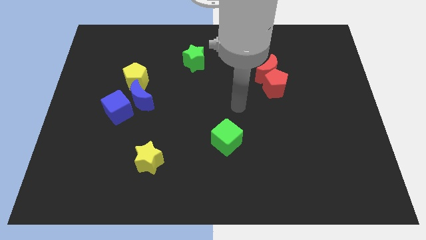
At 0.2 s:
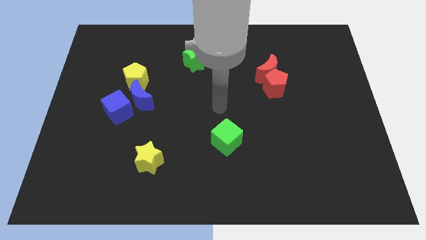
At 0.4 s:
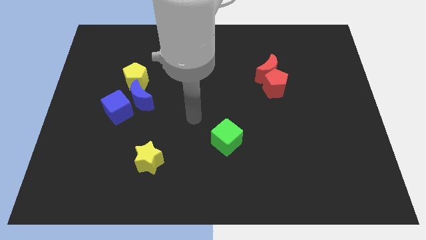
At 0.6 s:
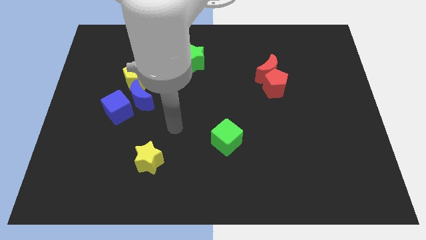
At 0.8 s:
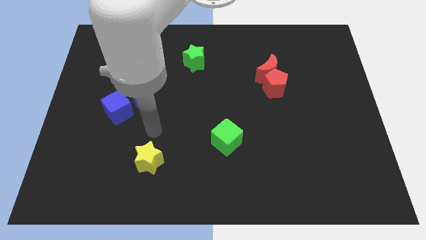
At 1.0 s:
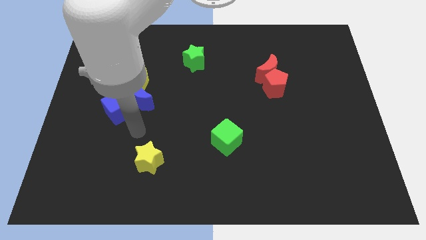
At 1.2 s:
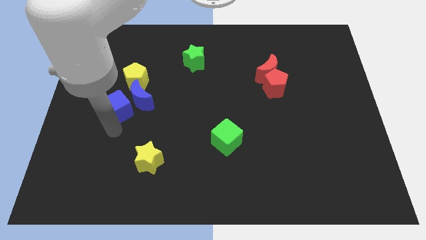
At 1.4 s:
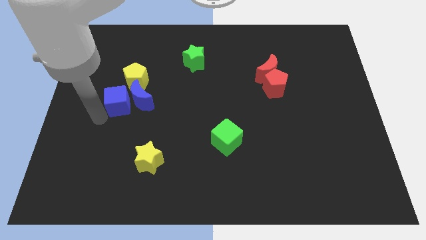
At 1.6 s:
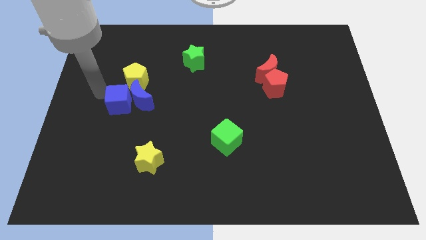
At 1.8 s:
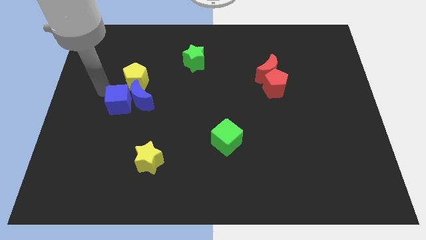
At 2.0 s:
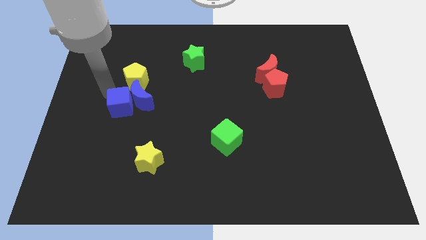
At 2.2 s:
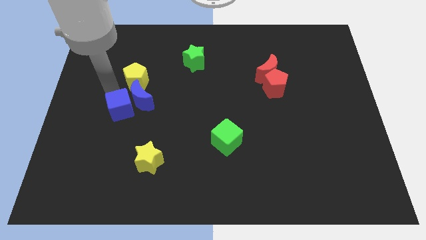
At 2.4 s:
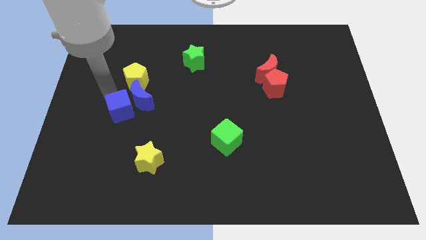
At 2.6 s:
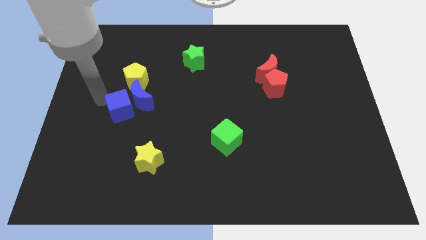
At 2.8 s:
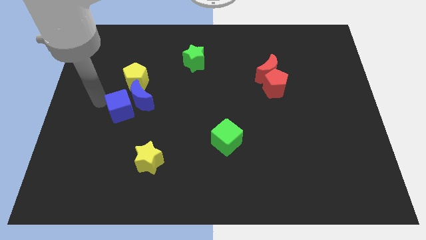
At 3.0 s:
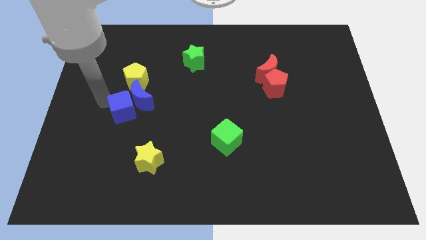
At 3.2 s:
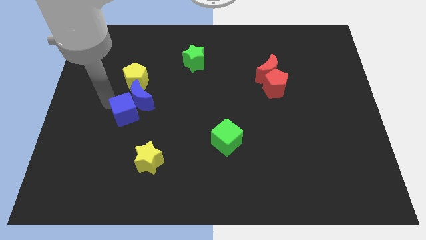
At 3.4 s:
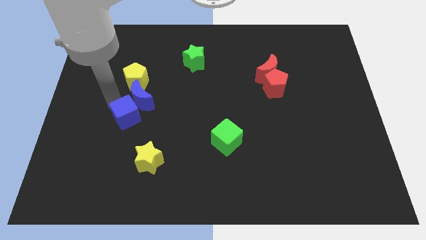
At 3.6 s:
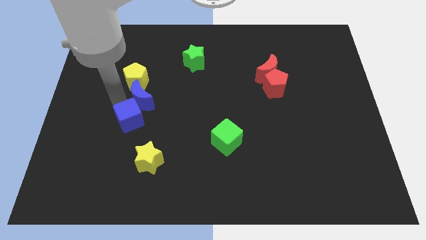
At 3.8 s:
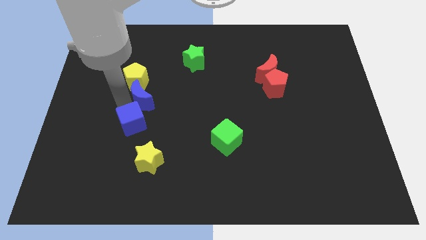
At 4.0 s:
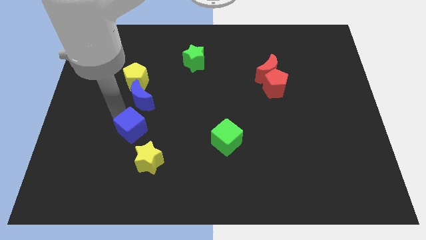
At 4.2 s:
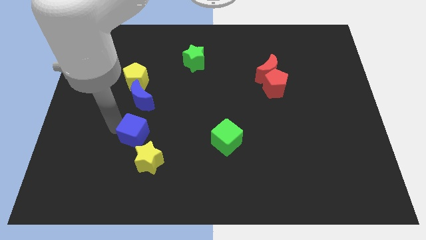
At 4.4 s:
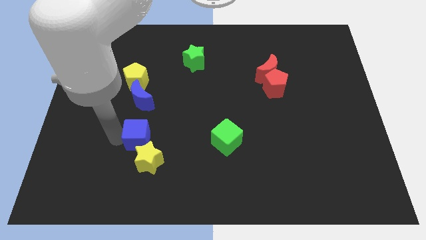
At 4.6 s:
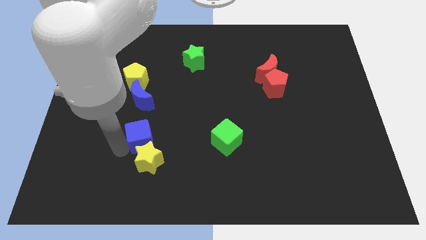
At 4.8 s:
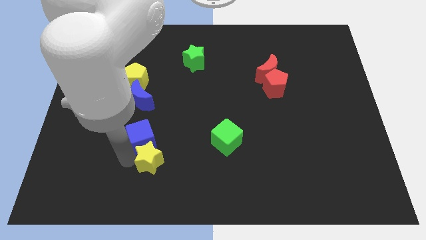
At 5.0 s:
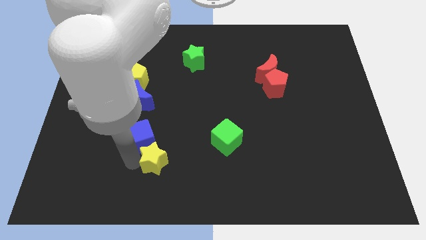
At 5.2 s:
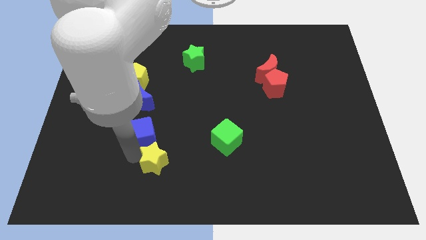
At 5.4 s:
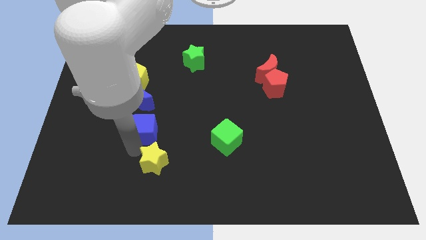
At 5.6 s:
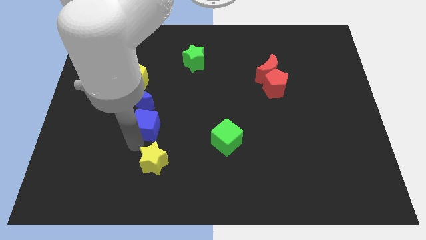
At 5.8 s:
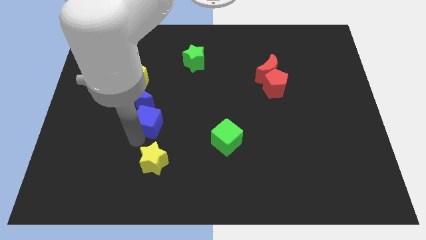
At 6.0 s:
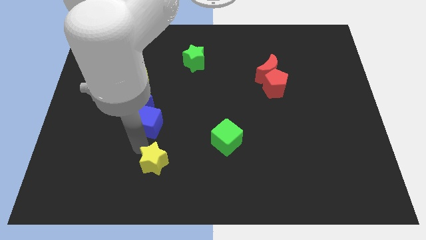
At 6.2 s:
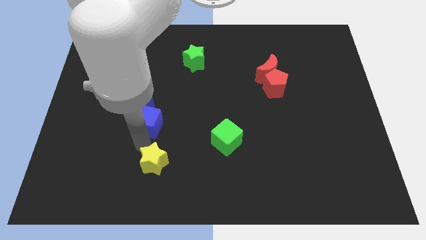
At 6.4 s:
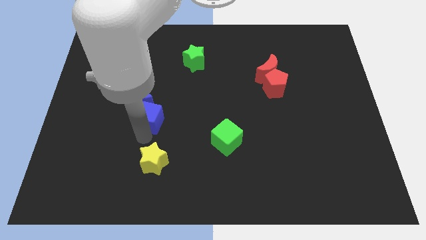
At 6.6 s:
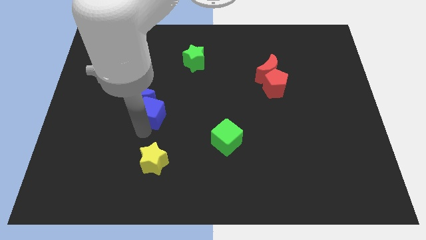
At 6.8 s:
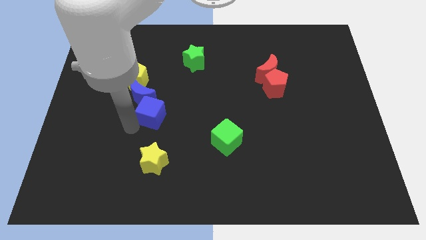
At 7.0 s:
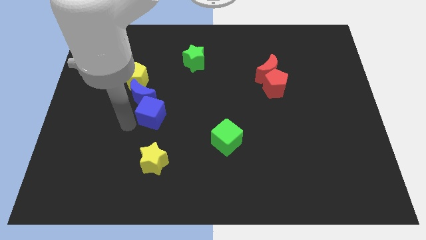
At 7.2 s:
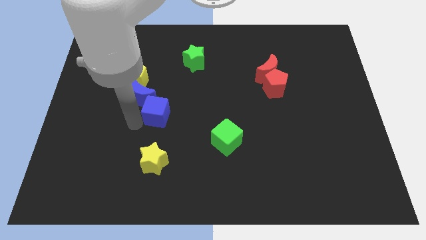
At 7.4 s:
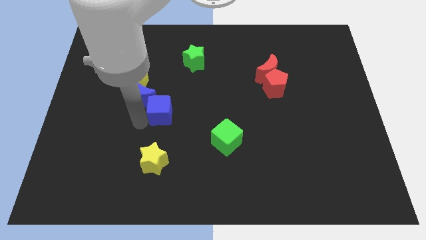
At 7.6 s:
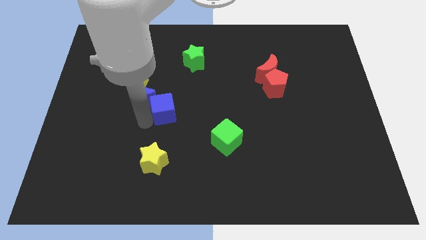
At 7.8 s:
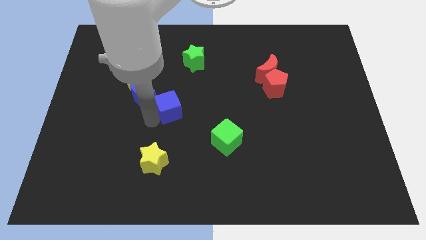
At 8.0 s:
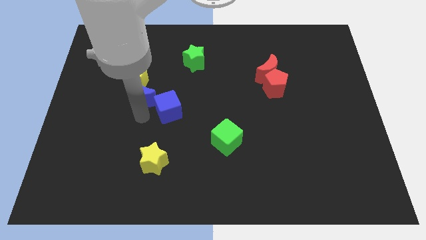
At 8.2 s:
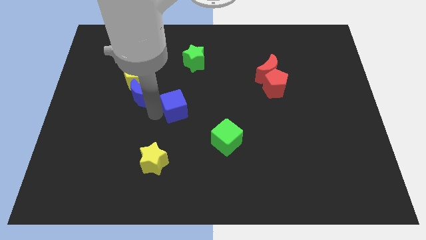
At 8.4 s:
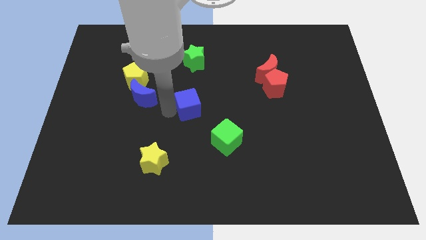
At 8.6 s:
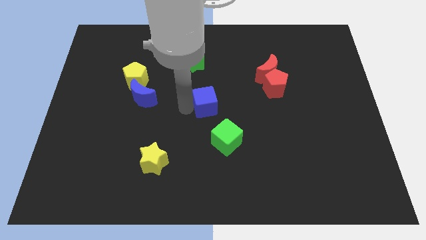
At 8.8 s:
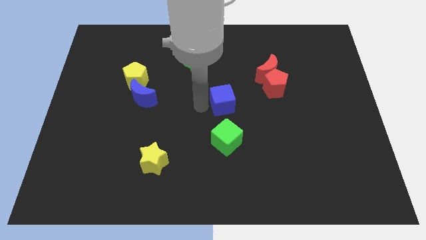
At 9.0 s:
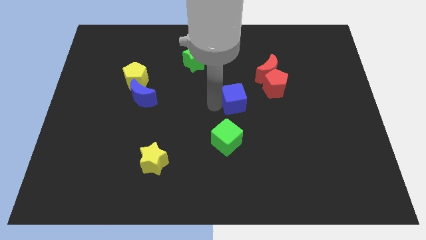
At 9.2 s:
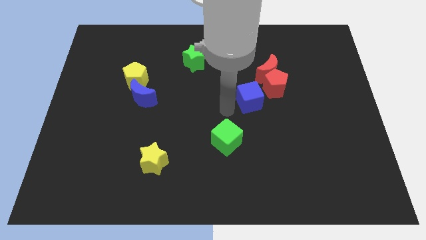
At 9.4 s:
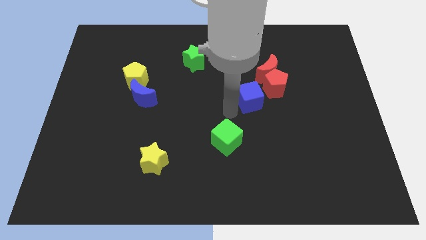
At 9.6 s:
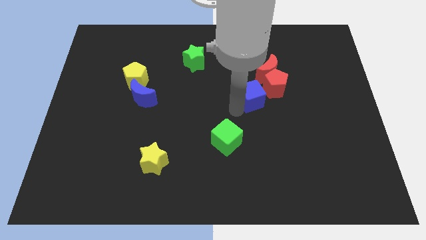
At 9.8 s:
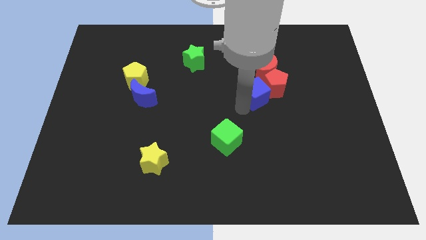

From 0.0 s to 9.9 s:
slide the blue cube next to the red pentagon

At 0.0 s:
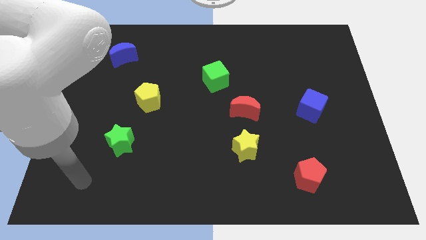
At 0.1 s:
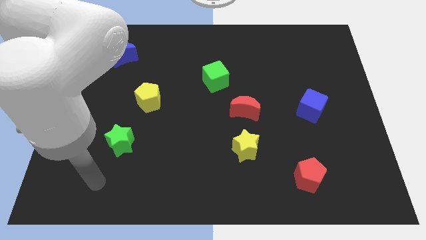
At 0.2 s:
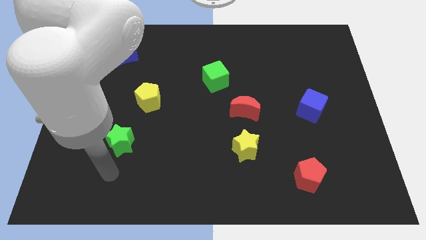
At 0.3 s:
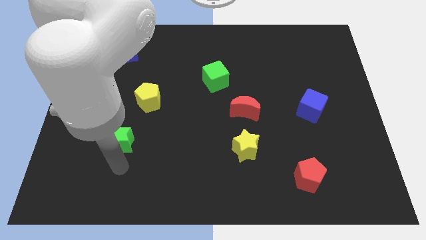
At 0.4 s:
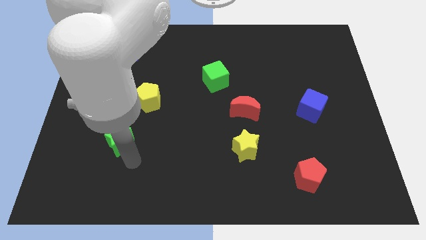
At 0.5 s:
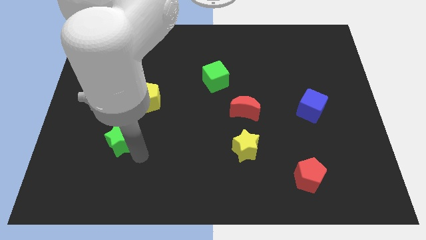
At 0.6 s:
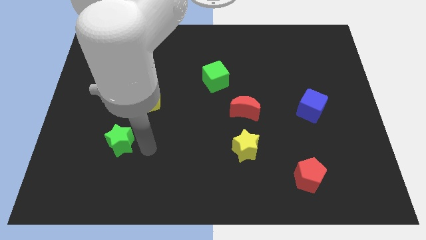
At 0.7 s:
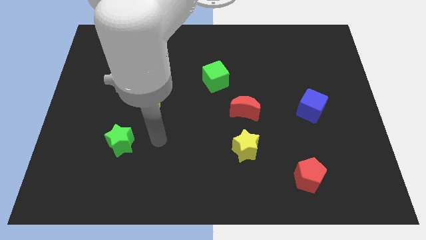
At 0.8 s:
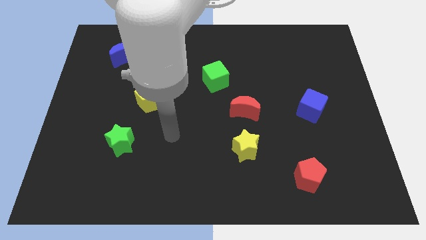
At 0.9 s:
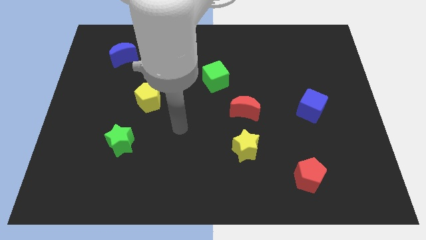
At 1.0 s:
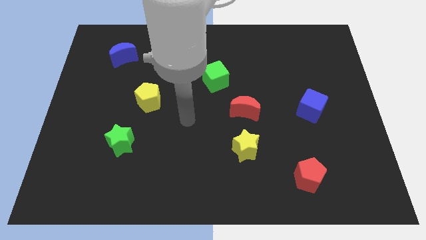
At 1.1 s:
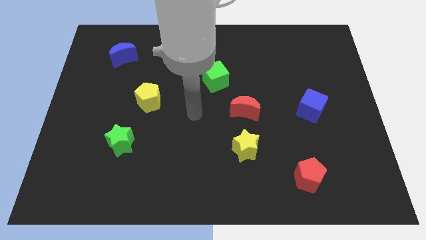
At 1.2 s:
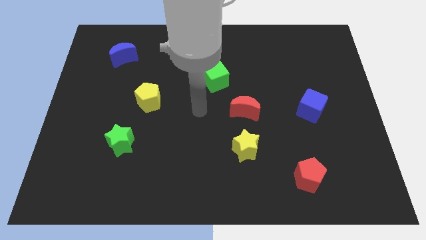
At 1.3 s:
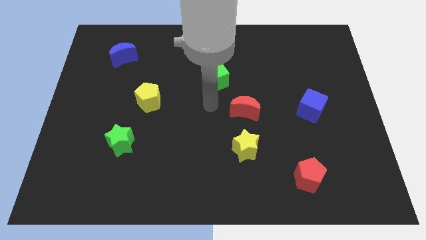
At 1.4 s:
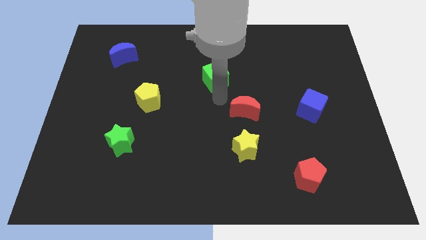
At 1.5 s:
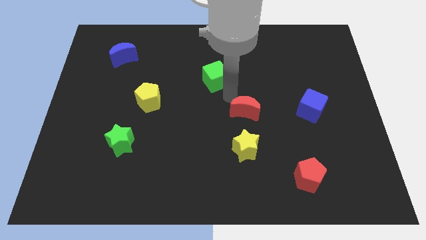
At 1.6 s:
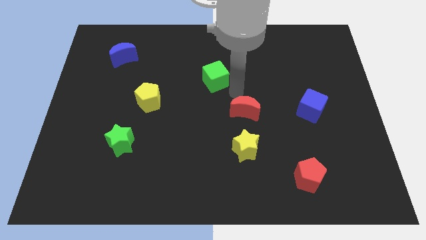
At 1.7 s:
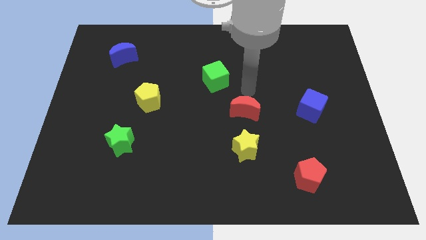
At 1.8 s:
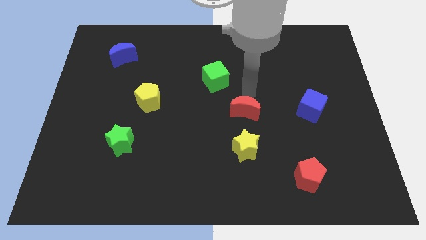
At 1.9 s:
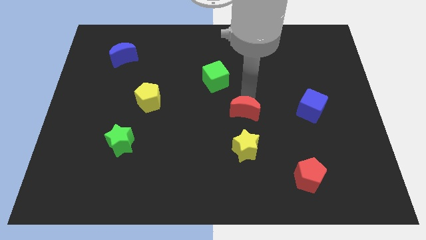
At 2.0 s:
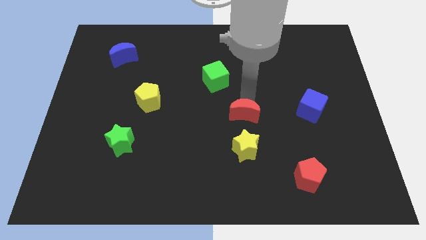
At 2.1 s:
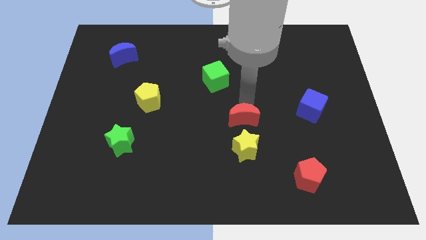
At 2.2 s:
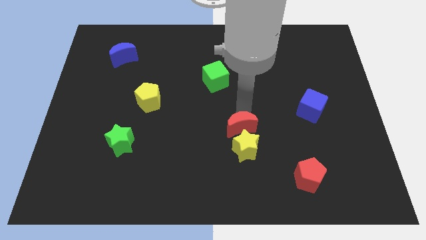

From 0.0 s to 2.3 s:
put the red moon next to the yellow star

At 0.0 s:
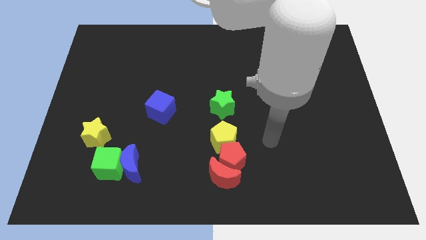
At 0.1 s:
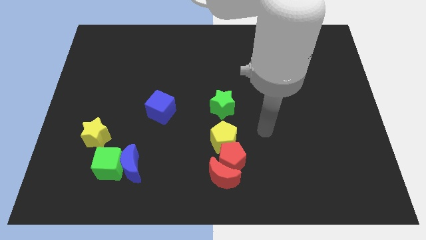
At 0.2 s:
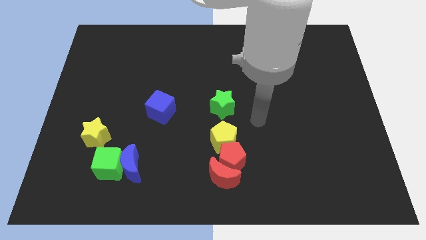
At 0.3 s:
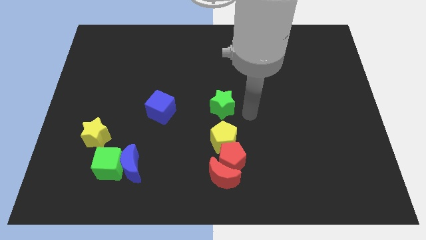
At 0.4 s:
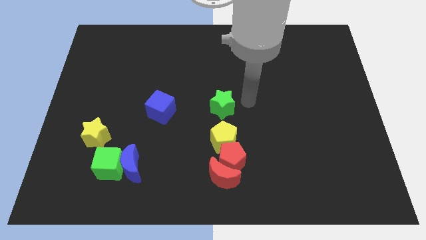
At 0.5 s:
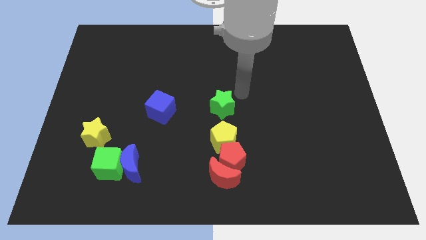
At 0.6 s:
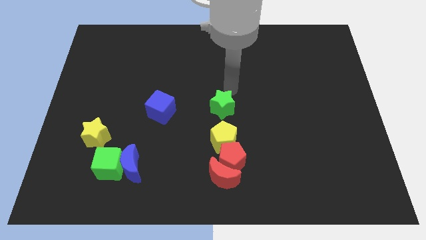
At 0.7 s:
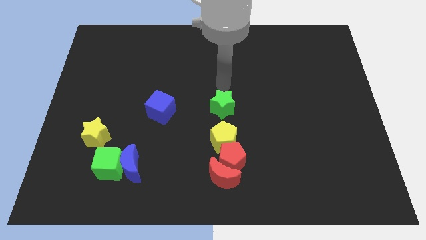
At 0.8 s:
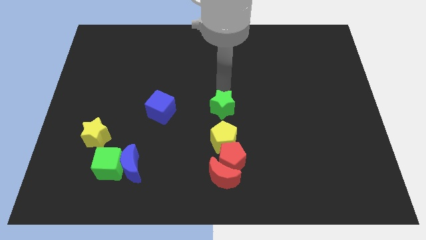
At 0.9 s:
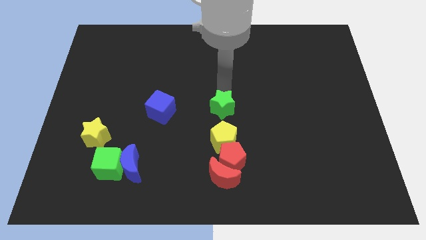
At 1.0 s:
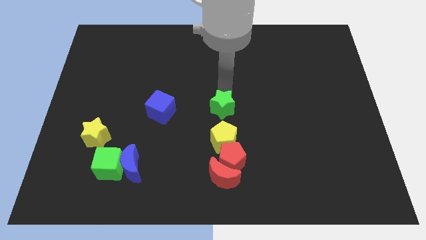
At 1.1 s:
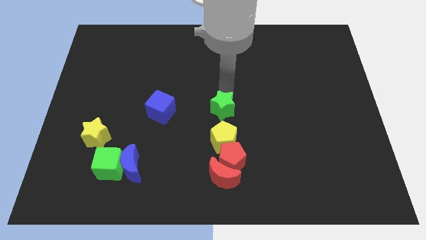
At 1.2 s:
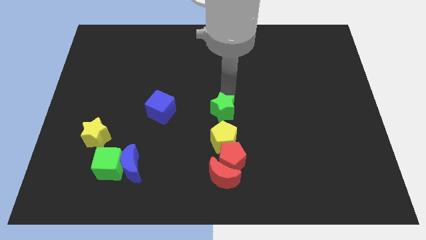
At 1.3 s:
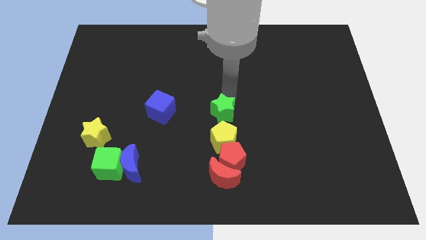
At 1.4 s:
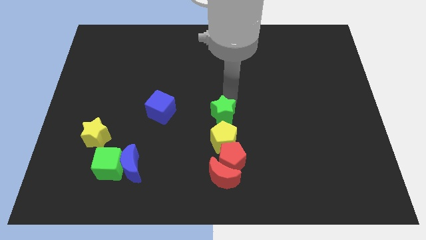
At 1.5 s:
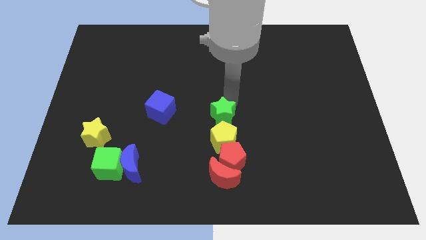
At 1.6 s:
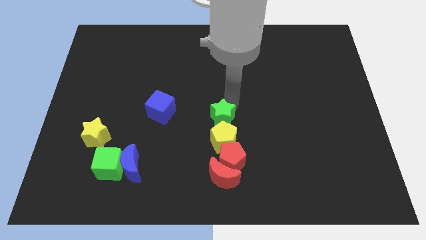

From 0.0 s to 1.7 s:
move the green star close to the yellow pentagon
